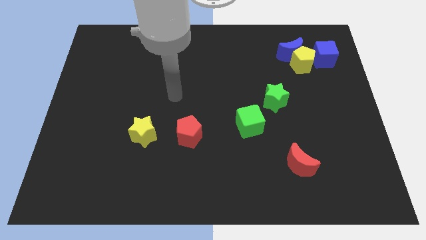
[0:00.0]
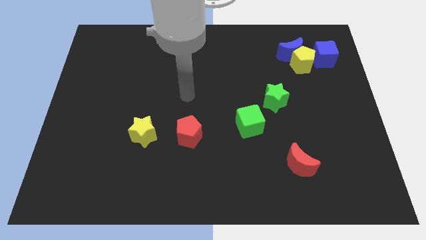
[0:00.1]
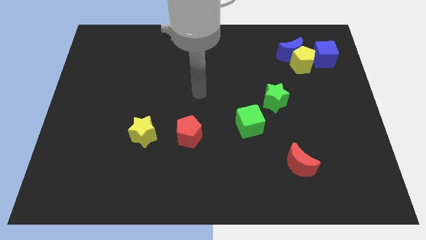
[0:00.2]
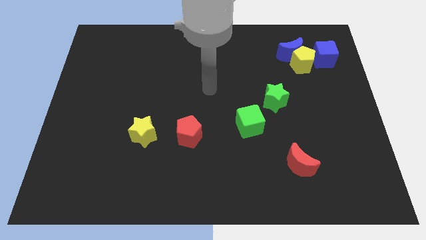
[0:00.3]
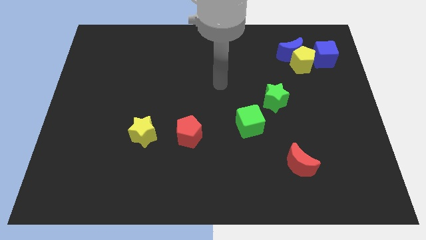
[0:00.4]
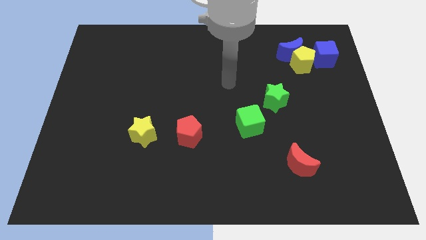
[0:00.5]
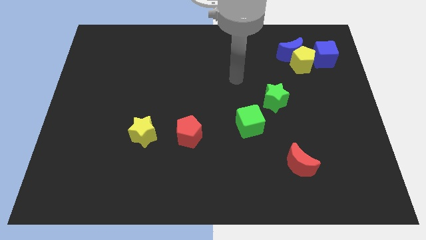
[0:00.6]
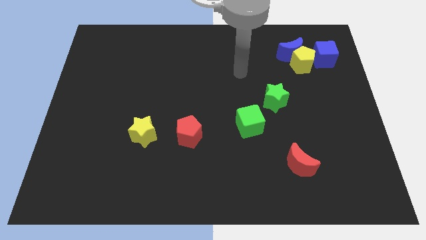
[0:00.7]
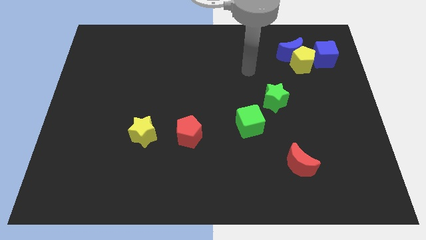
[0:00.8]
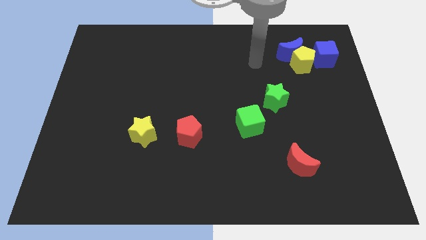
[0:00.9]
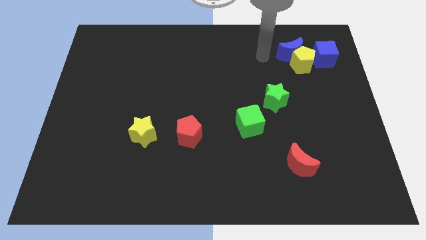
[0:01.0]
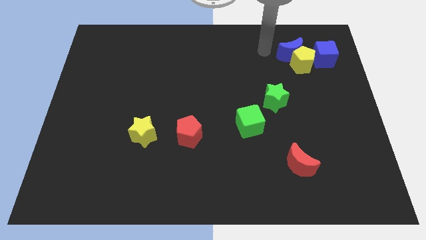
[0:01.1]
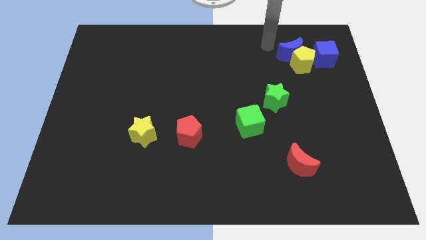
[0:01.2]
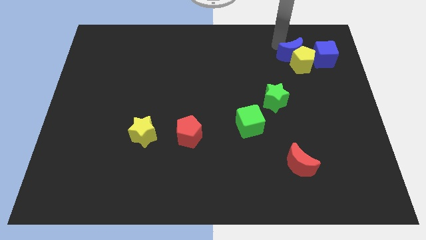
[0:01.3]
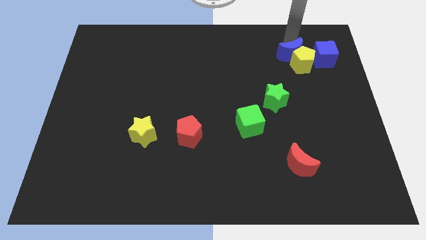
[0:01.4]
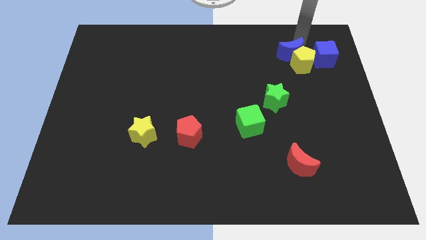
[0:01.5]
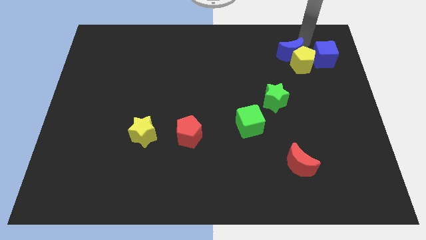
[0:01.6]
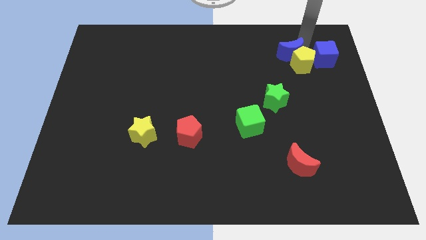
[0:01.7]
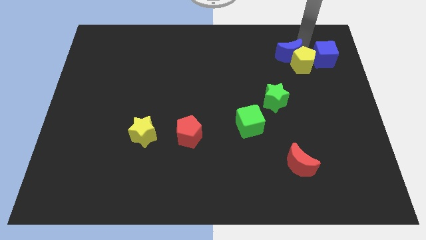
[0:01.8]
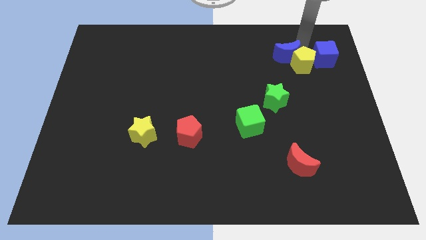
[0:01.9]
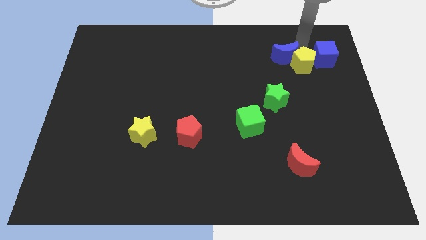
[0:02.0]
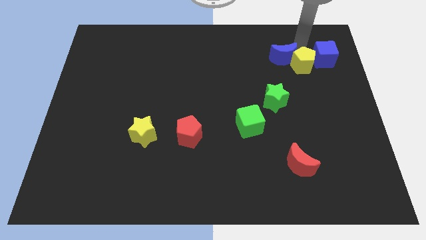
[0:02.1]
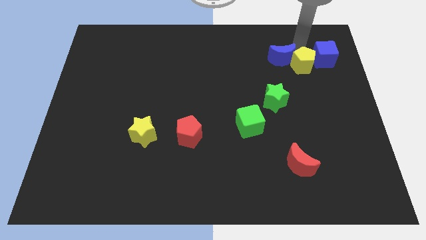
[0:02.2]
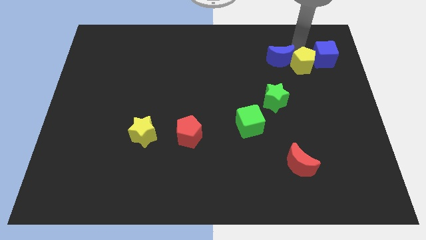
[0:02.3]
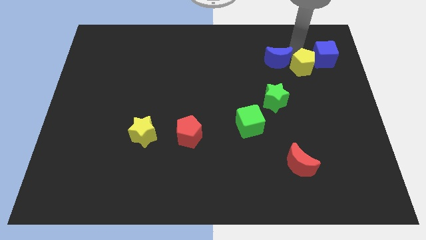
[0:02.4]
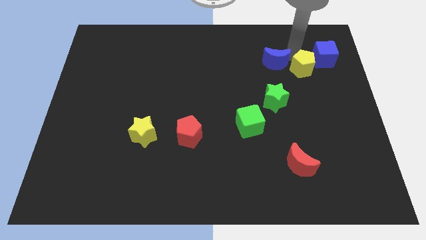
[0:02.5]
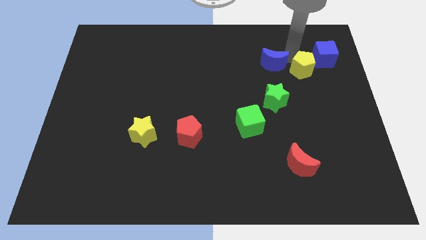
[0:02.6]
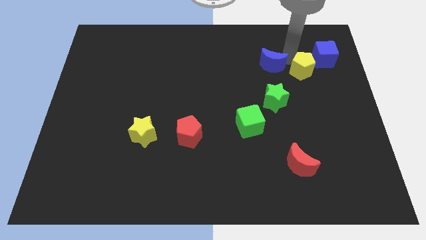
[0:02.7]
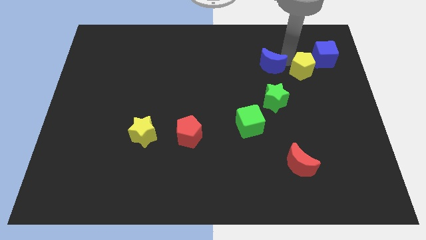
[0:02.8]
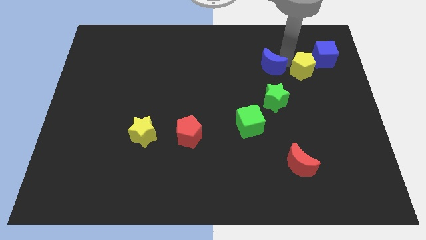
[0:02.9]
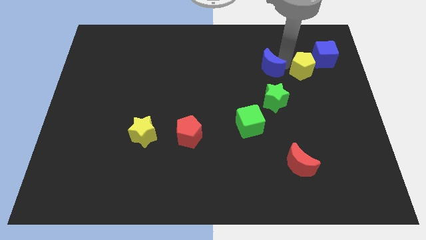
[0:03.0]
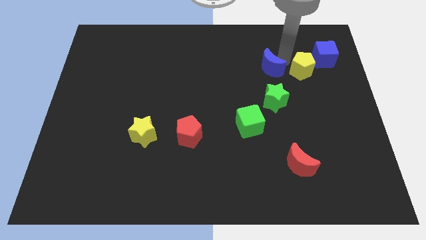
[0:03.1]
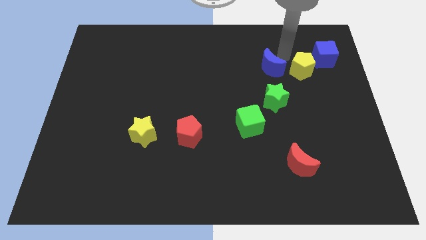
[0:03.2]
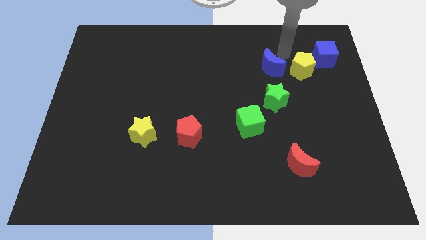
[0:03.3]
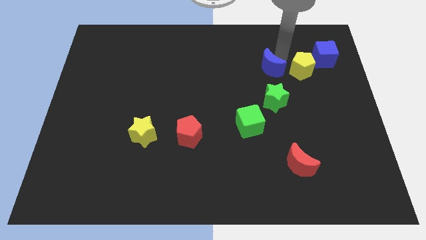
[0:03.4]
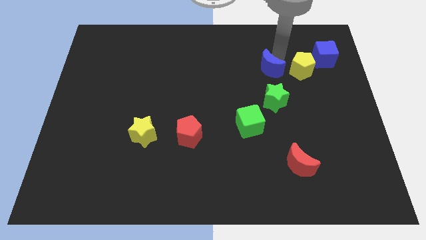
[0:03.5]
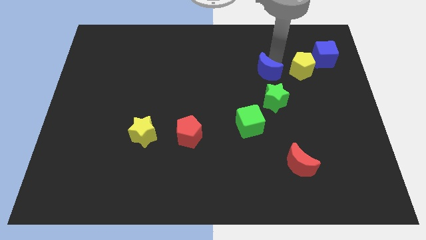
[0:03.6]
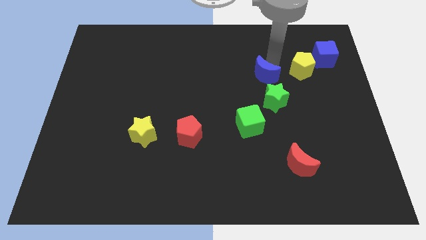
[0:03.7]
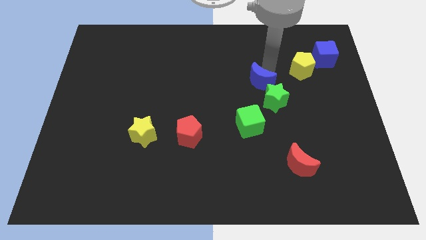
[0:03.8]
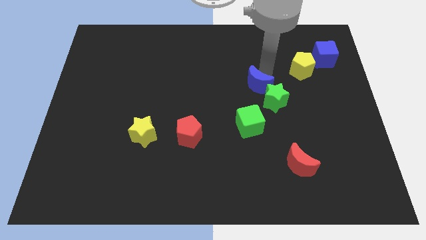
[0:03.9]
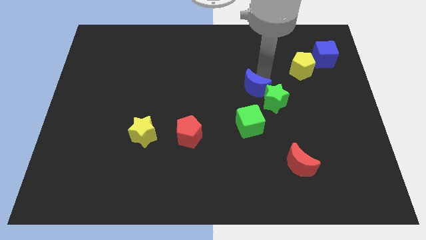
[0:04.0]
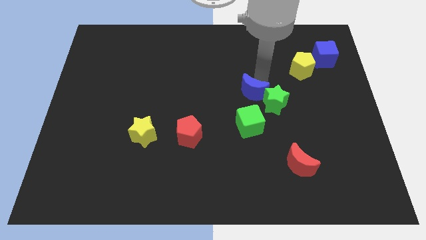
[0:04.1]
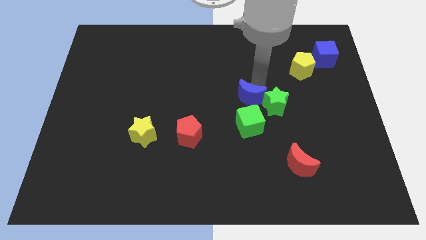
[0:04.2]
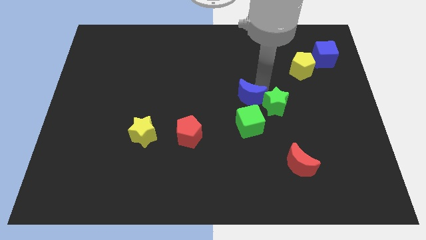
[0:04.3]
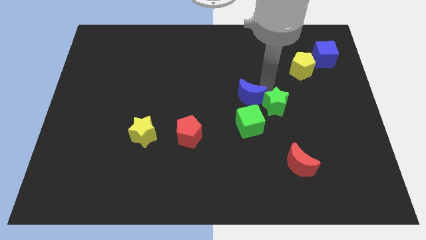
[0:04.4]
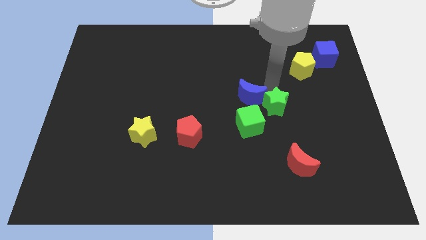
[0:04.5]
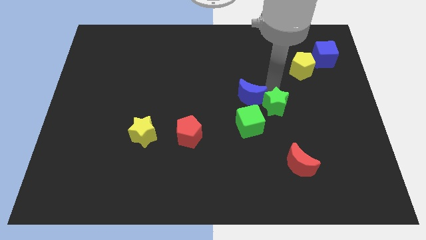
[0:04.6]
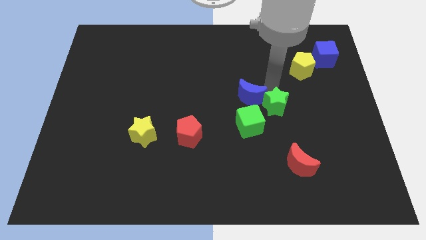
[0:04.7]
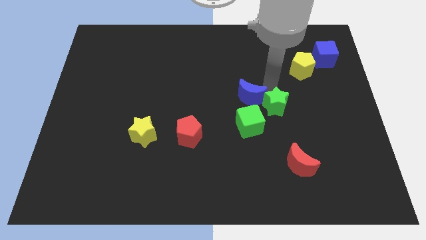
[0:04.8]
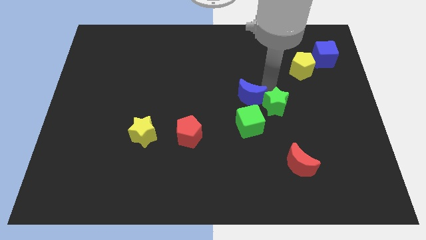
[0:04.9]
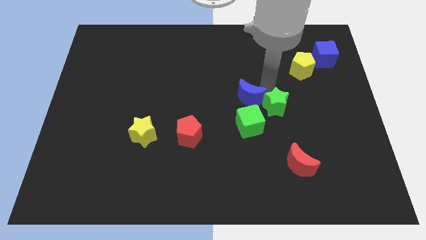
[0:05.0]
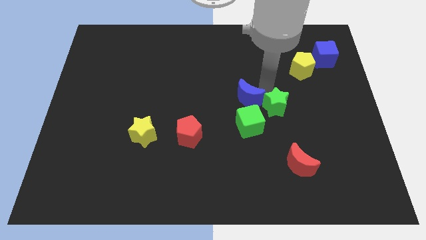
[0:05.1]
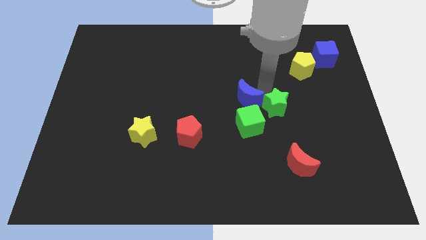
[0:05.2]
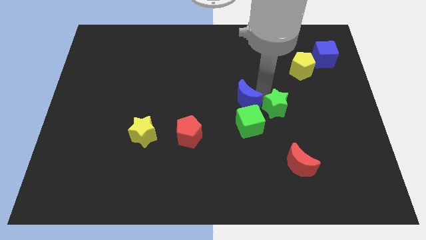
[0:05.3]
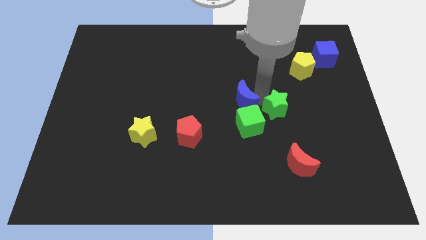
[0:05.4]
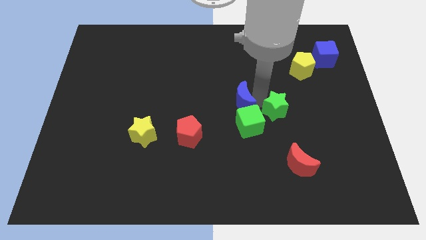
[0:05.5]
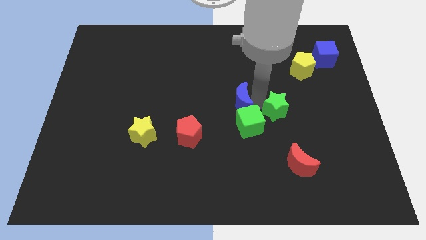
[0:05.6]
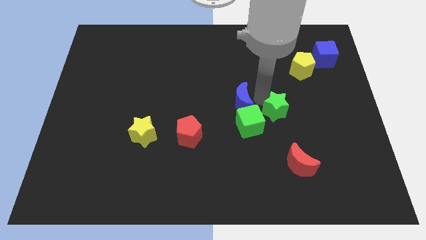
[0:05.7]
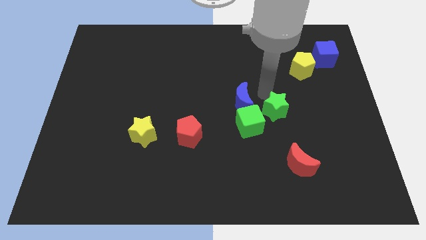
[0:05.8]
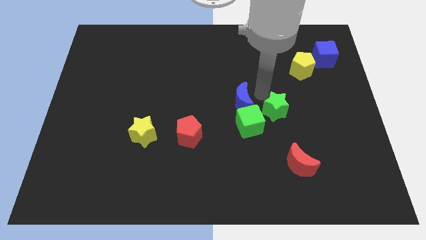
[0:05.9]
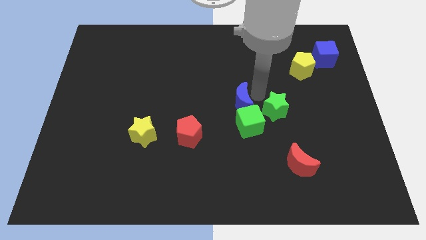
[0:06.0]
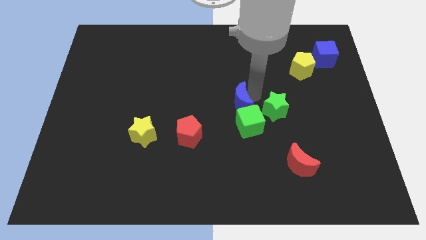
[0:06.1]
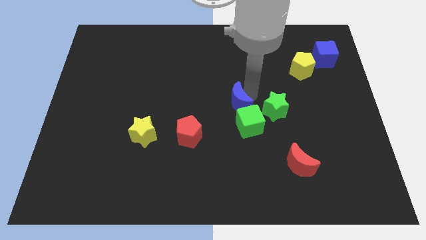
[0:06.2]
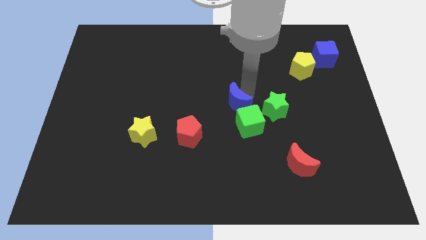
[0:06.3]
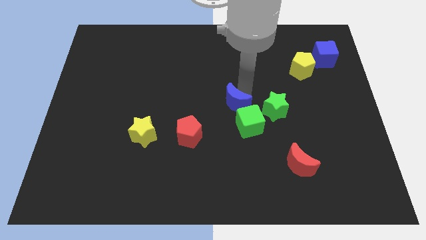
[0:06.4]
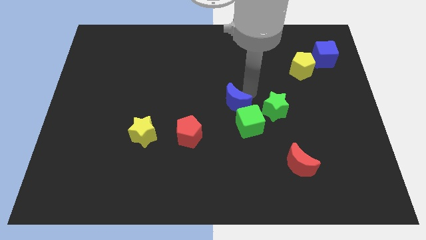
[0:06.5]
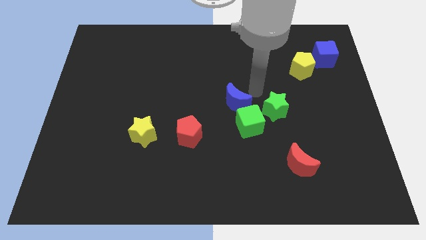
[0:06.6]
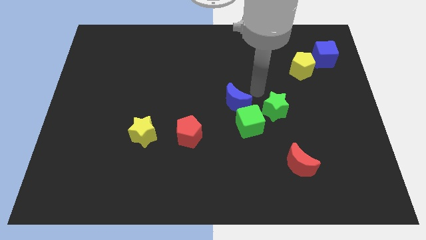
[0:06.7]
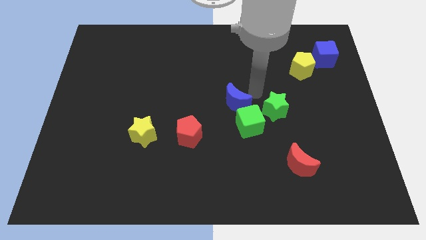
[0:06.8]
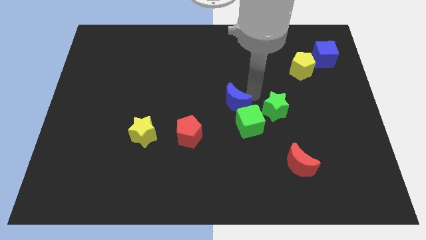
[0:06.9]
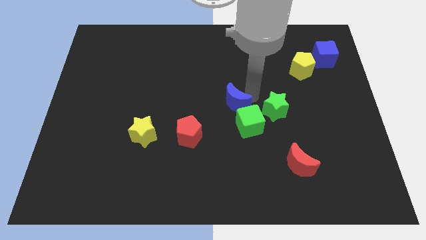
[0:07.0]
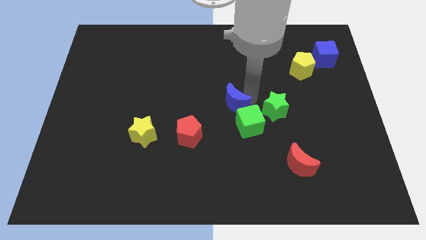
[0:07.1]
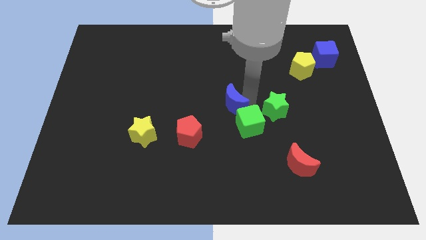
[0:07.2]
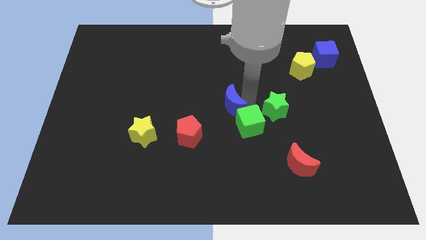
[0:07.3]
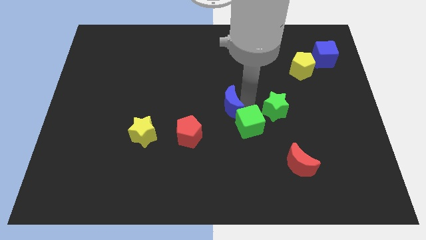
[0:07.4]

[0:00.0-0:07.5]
slide the blue moon diagonally up and to the right of the red pentagon
